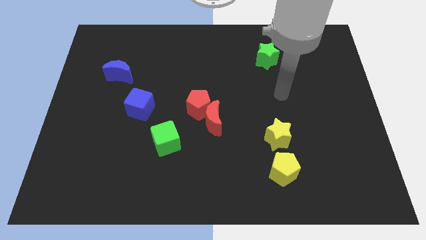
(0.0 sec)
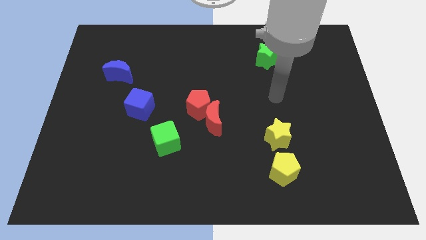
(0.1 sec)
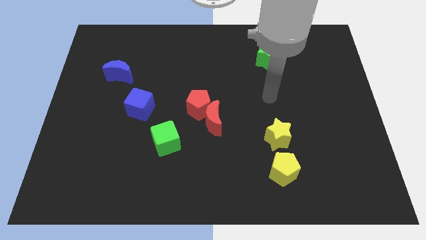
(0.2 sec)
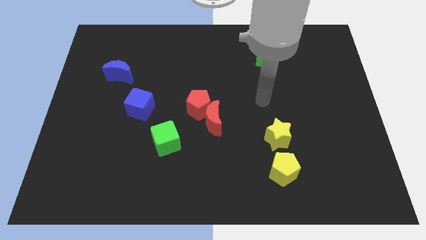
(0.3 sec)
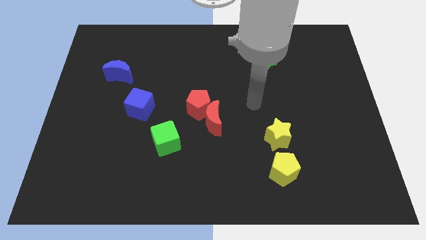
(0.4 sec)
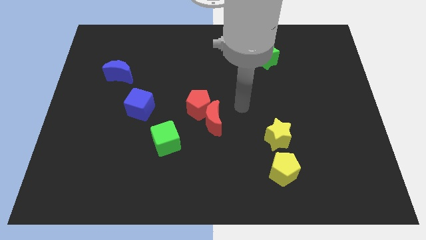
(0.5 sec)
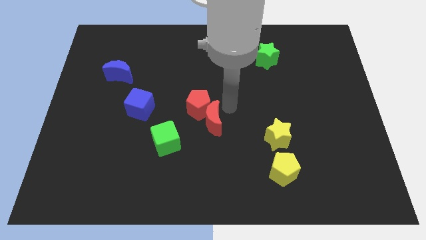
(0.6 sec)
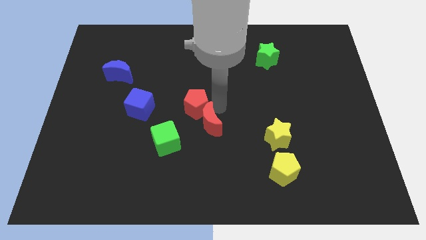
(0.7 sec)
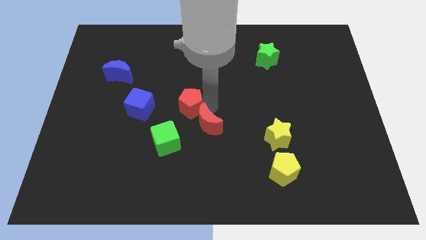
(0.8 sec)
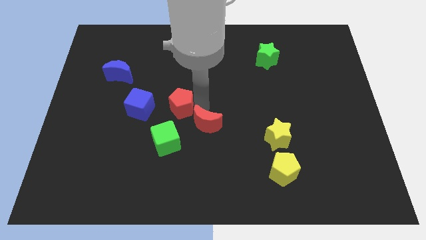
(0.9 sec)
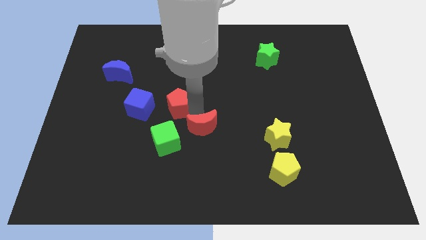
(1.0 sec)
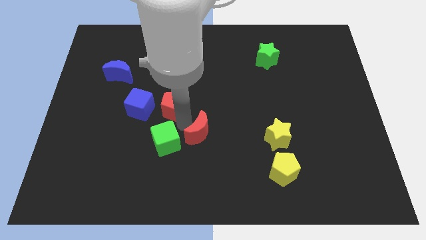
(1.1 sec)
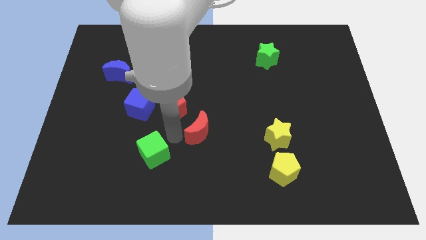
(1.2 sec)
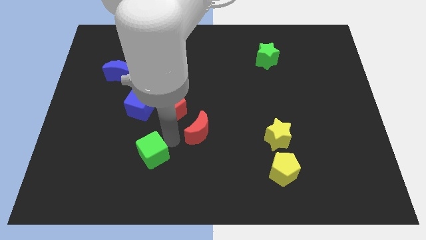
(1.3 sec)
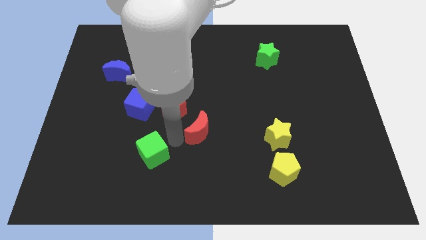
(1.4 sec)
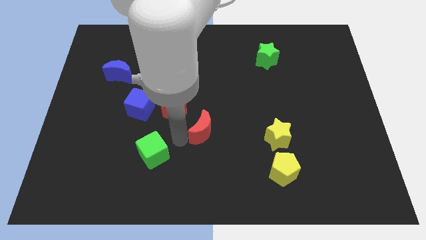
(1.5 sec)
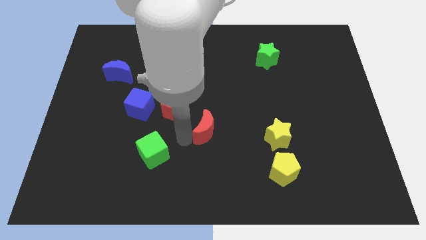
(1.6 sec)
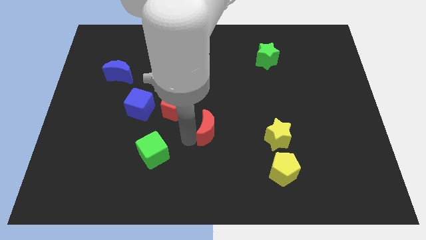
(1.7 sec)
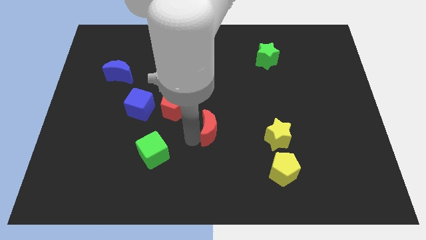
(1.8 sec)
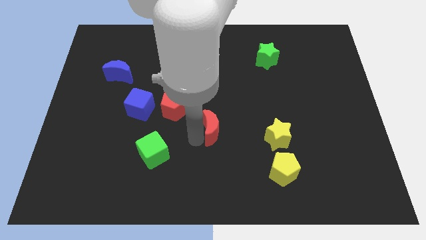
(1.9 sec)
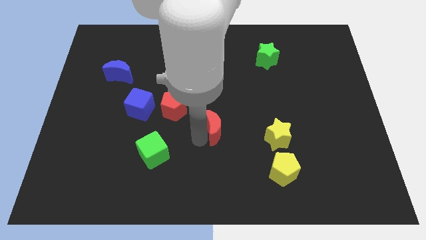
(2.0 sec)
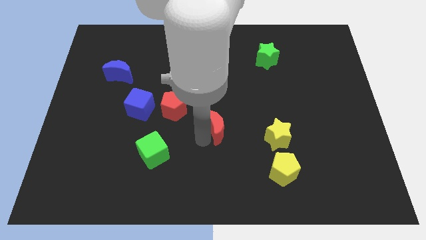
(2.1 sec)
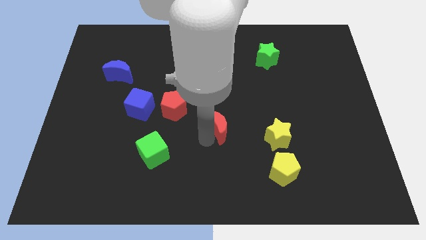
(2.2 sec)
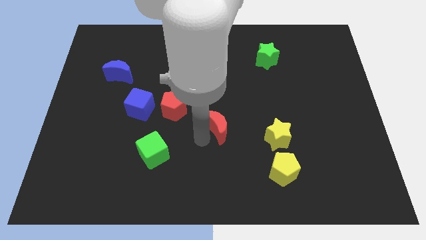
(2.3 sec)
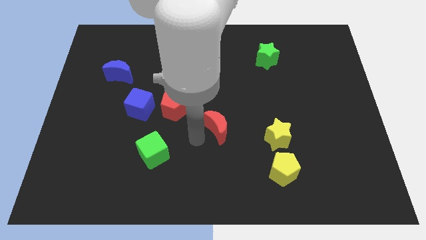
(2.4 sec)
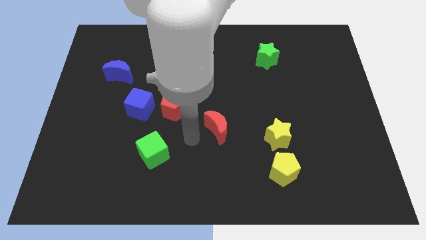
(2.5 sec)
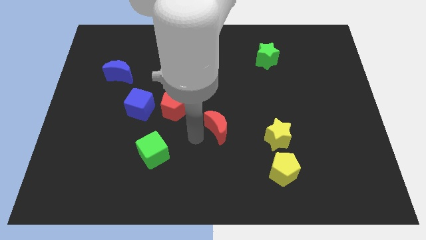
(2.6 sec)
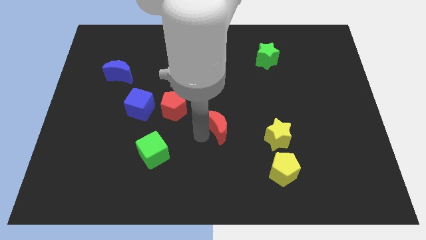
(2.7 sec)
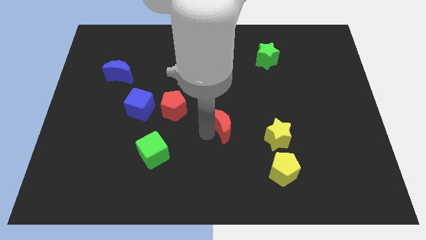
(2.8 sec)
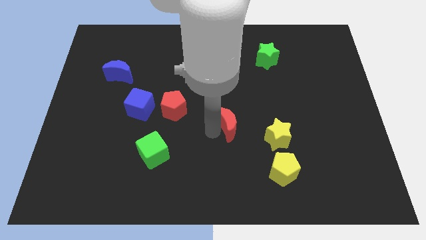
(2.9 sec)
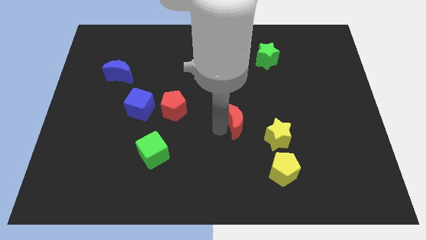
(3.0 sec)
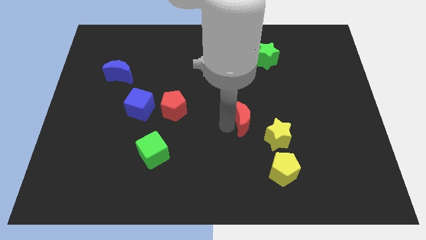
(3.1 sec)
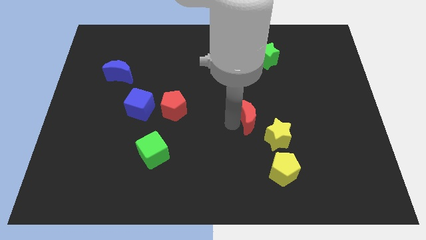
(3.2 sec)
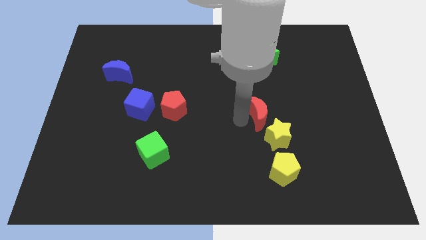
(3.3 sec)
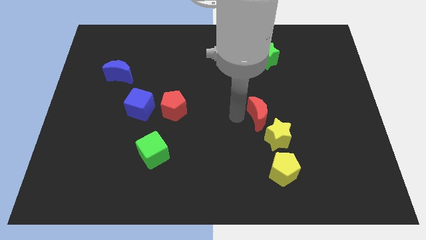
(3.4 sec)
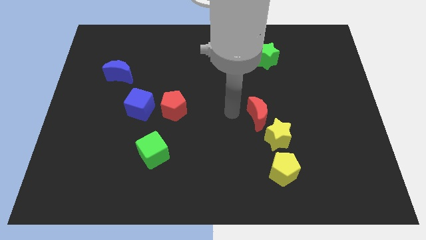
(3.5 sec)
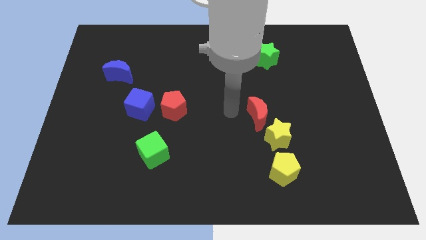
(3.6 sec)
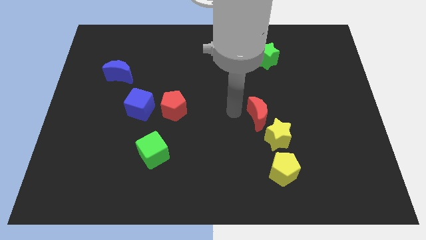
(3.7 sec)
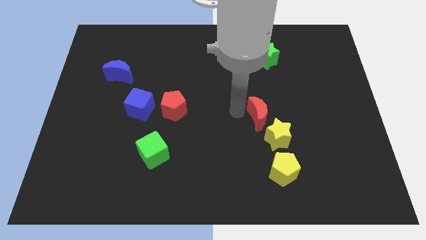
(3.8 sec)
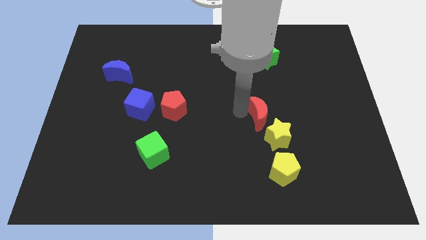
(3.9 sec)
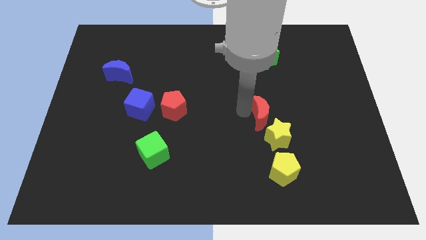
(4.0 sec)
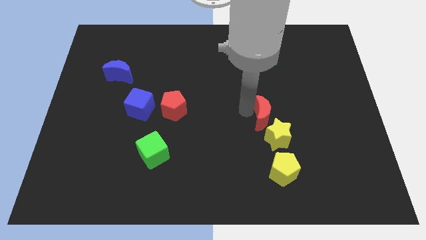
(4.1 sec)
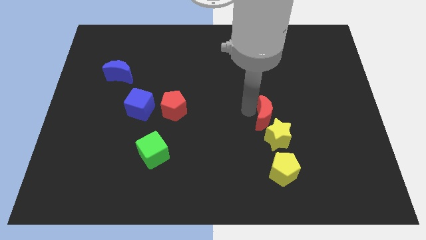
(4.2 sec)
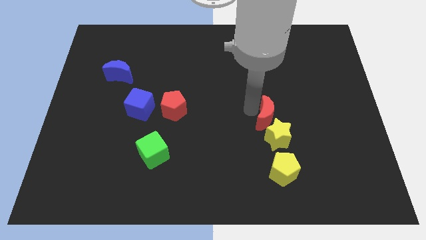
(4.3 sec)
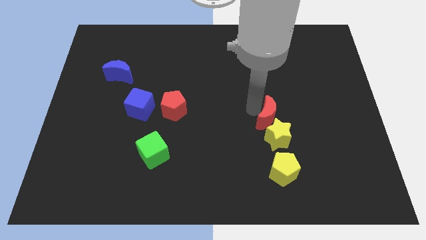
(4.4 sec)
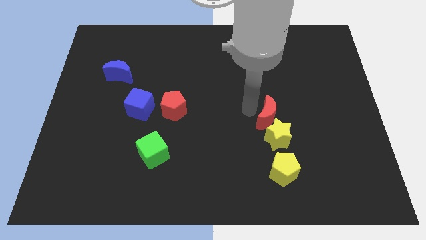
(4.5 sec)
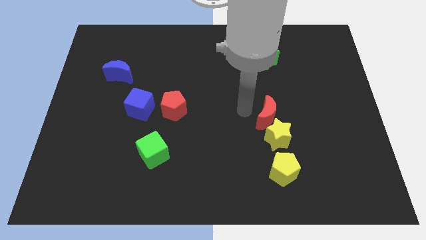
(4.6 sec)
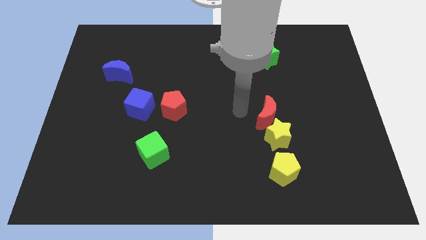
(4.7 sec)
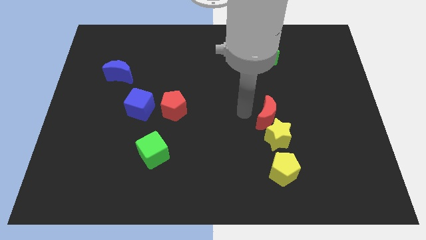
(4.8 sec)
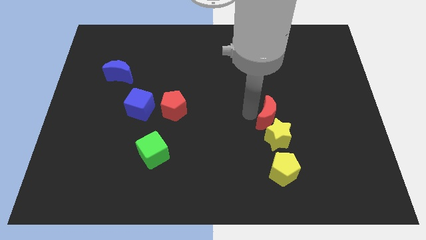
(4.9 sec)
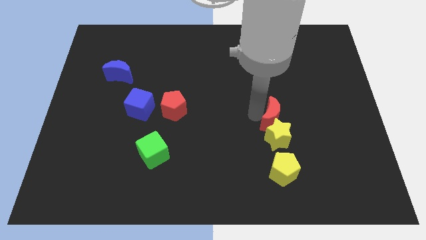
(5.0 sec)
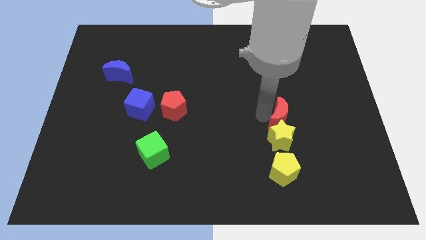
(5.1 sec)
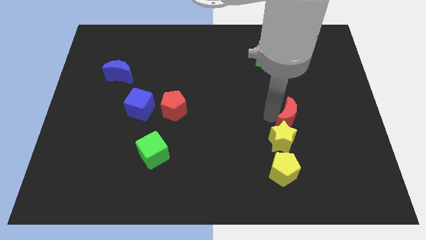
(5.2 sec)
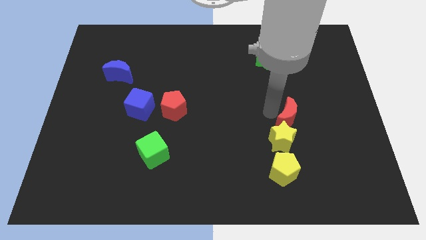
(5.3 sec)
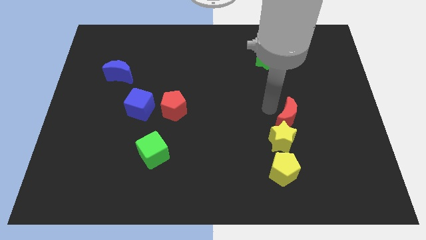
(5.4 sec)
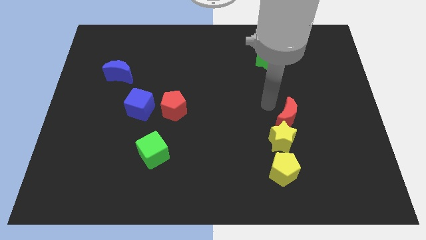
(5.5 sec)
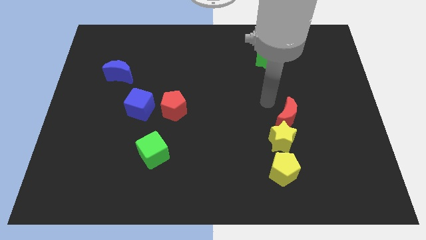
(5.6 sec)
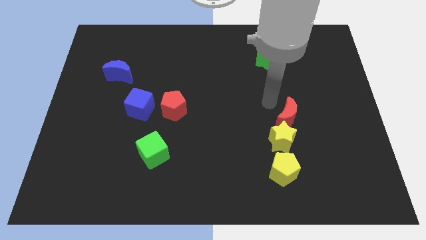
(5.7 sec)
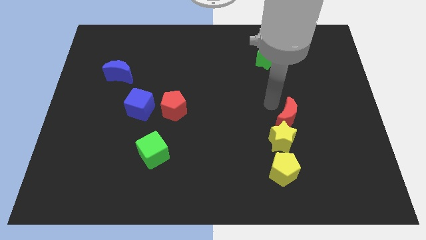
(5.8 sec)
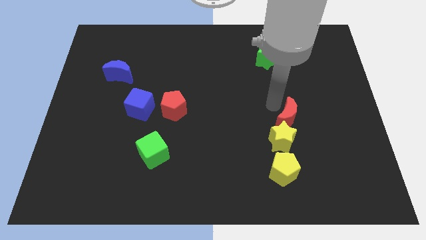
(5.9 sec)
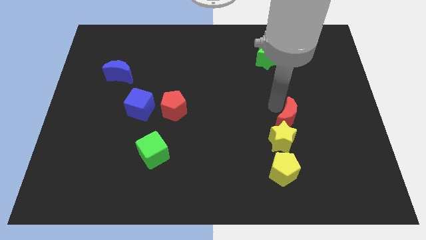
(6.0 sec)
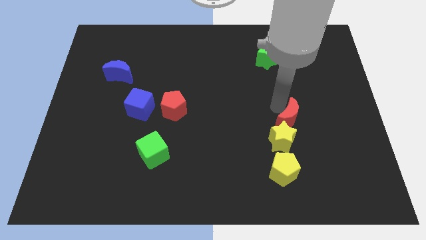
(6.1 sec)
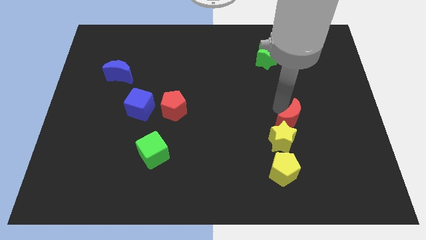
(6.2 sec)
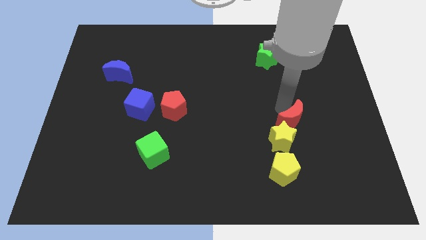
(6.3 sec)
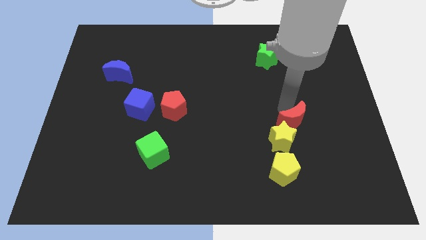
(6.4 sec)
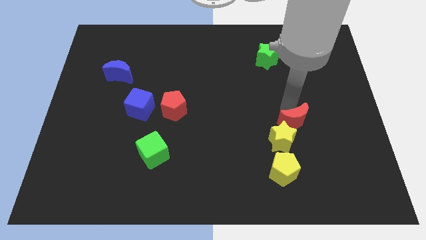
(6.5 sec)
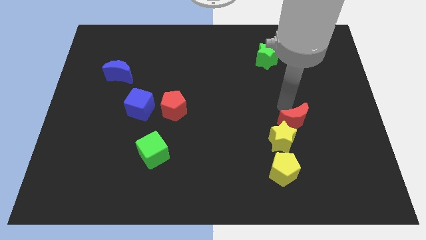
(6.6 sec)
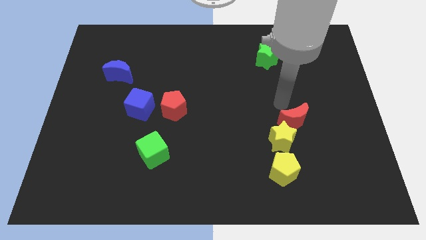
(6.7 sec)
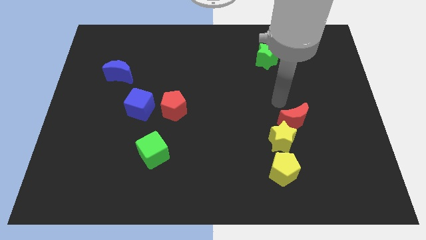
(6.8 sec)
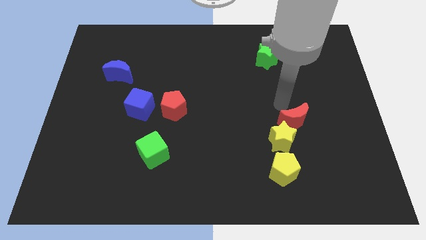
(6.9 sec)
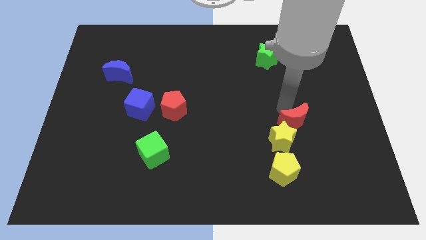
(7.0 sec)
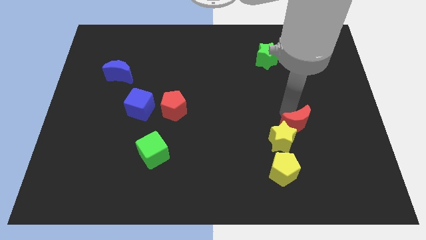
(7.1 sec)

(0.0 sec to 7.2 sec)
put the red moon to the right of the yellow star
